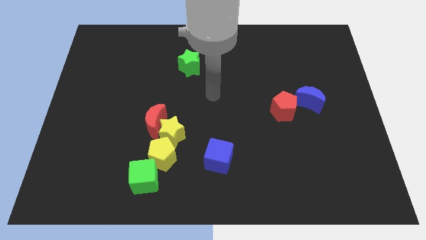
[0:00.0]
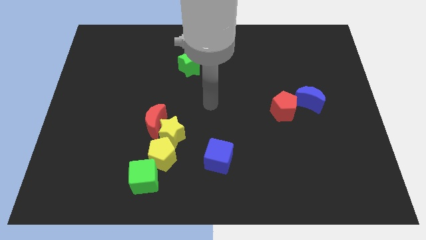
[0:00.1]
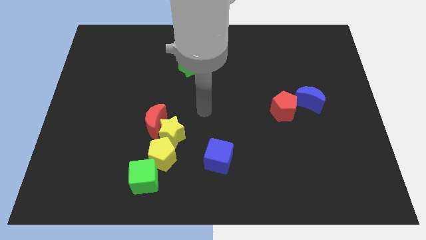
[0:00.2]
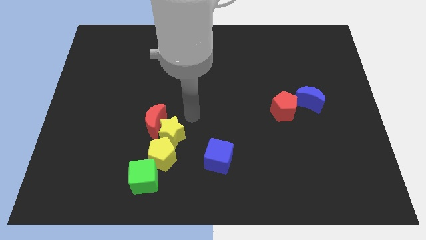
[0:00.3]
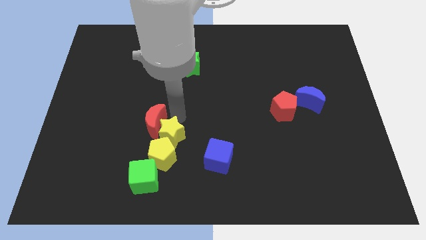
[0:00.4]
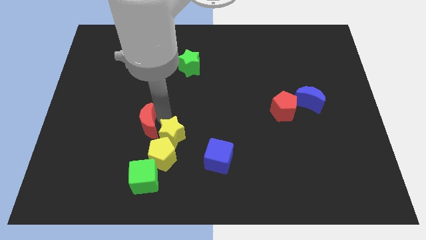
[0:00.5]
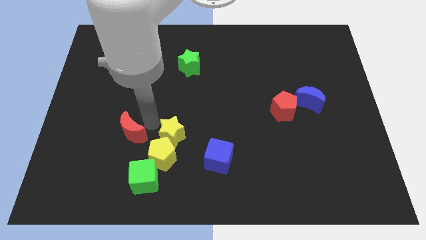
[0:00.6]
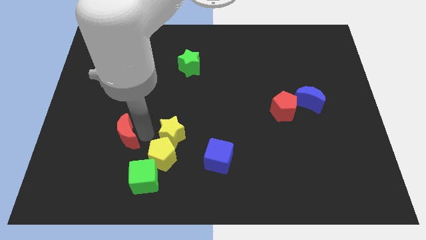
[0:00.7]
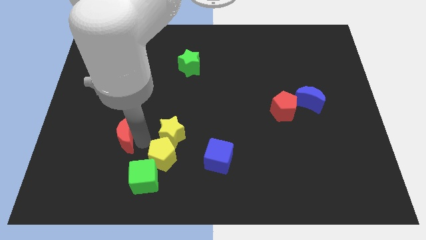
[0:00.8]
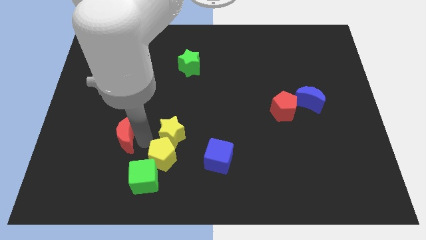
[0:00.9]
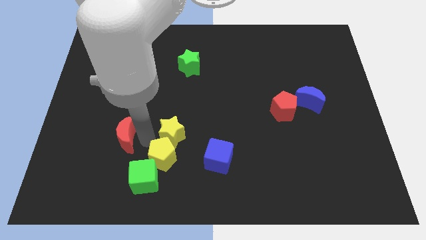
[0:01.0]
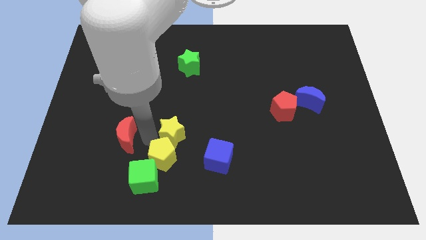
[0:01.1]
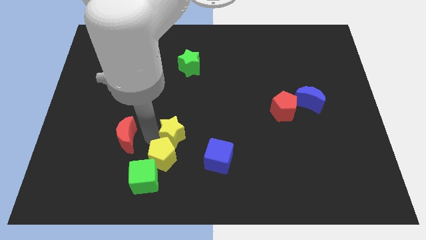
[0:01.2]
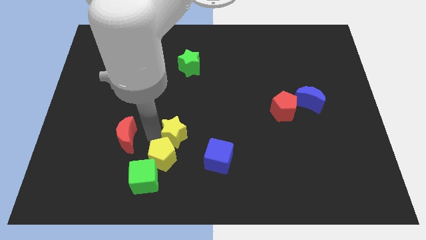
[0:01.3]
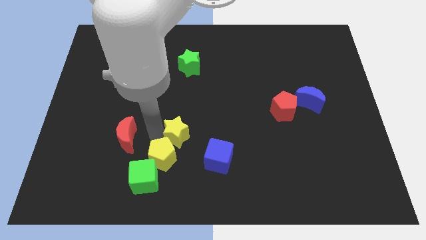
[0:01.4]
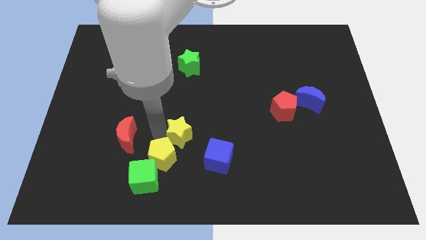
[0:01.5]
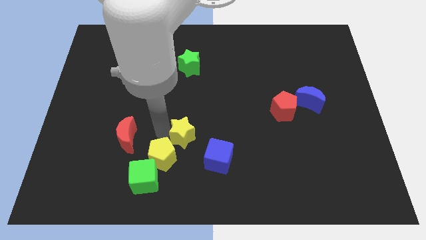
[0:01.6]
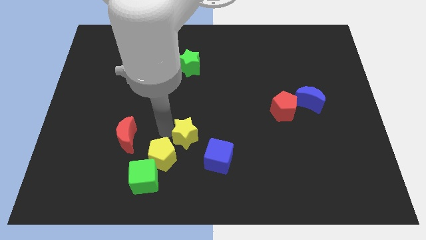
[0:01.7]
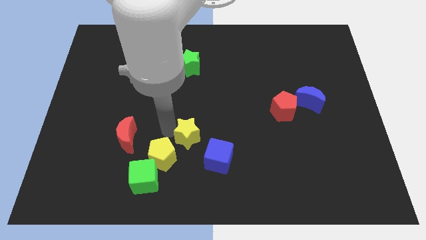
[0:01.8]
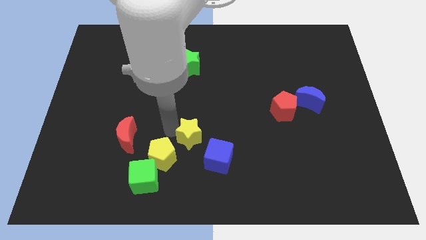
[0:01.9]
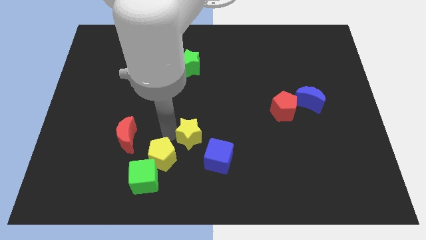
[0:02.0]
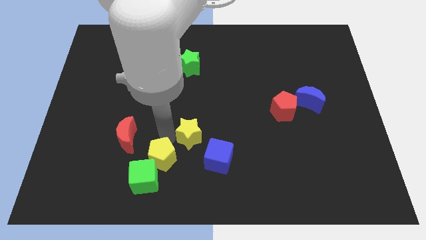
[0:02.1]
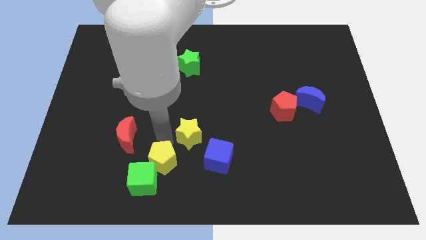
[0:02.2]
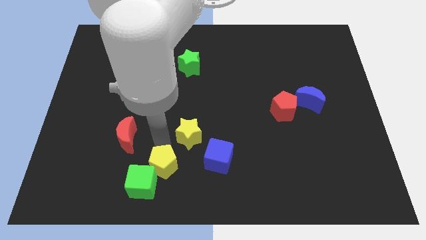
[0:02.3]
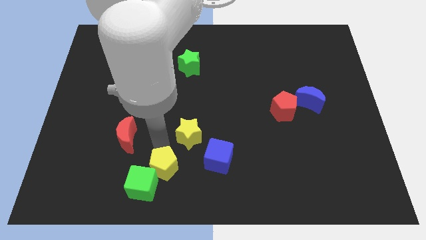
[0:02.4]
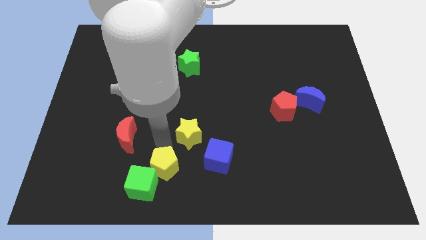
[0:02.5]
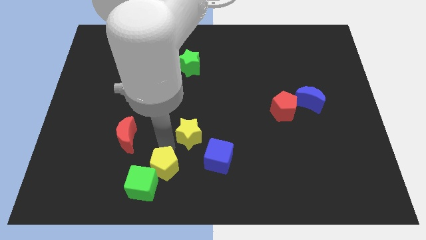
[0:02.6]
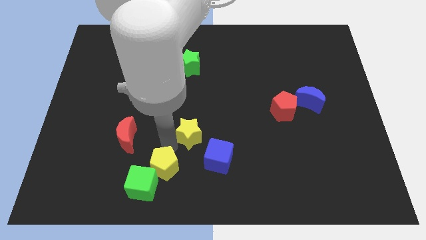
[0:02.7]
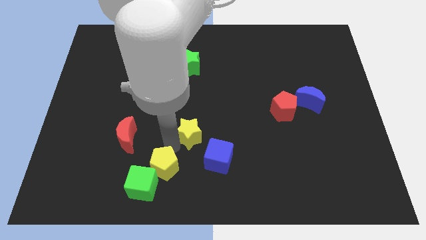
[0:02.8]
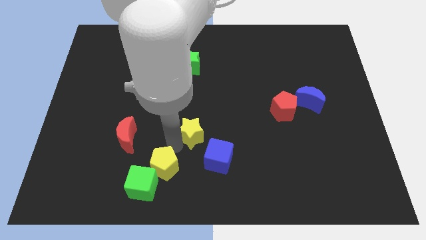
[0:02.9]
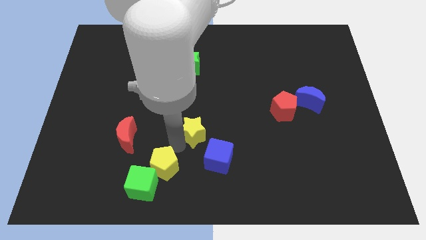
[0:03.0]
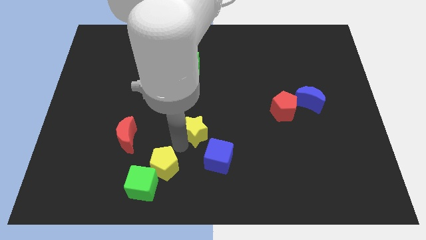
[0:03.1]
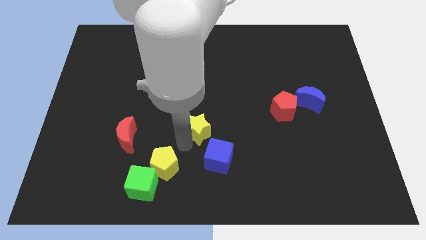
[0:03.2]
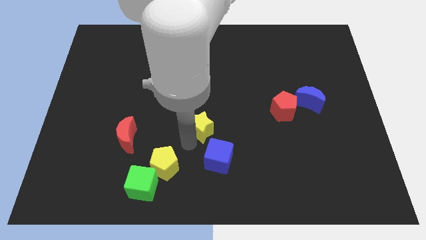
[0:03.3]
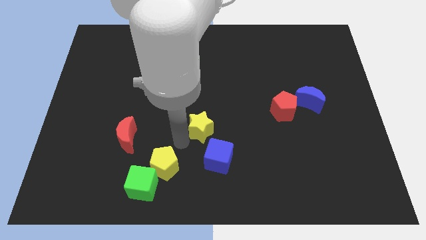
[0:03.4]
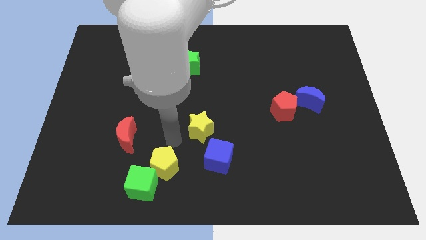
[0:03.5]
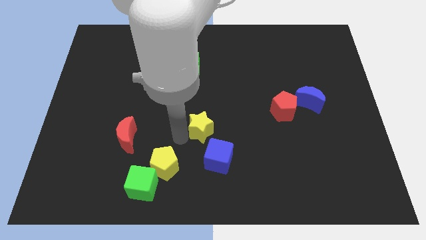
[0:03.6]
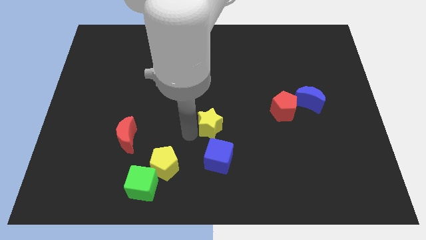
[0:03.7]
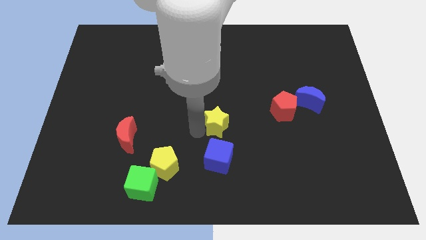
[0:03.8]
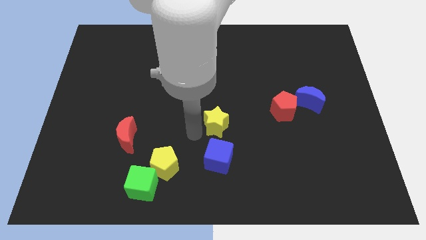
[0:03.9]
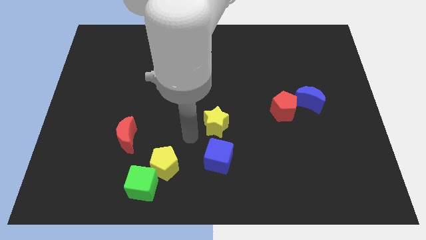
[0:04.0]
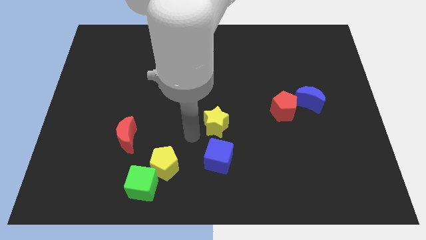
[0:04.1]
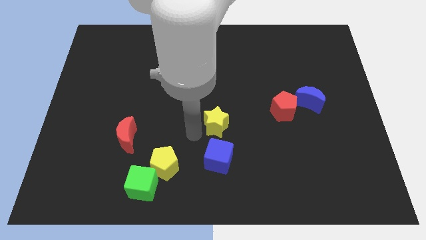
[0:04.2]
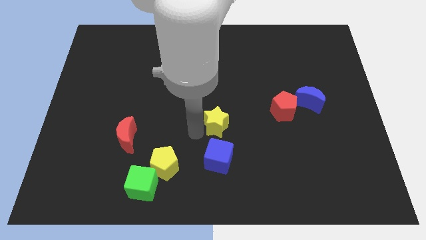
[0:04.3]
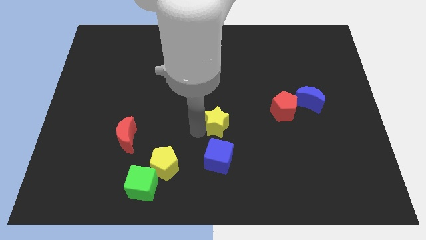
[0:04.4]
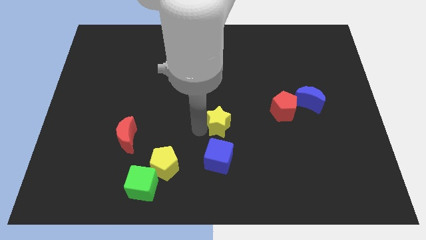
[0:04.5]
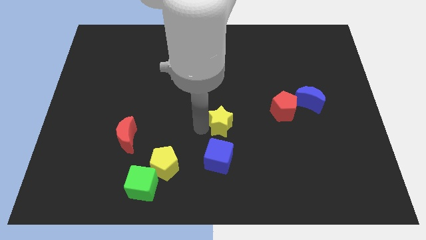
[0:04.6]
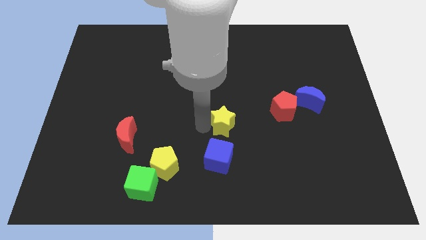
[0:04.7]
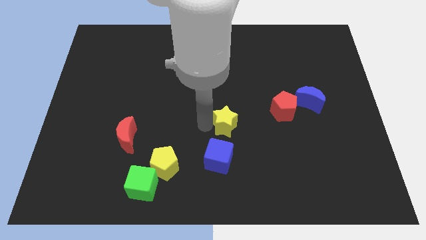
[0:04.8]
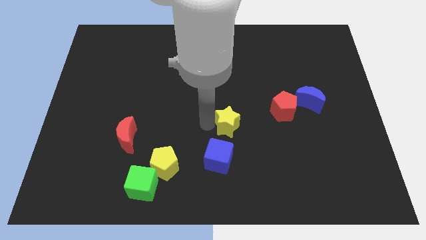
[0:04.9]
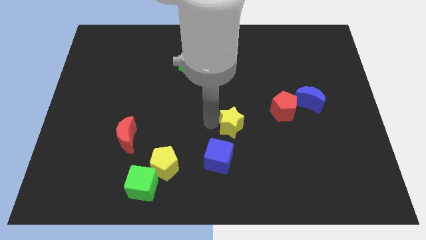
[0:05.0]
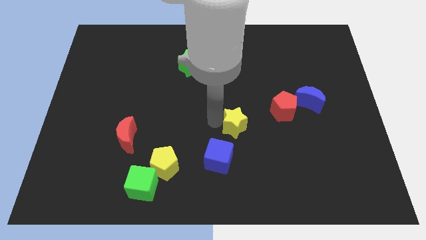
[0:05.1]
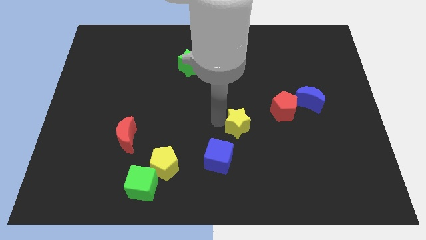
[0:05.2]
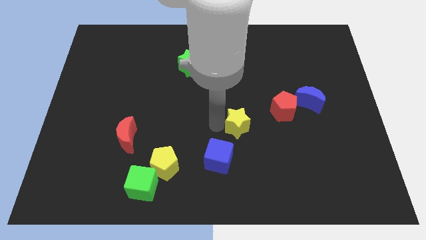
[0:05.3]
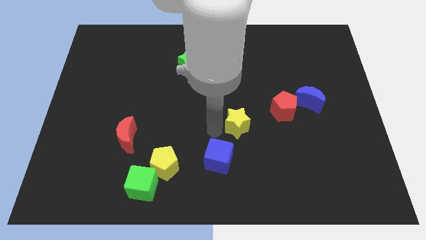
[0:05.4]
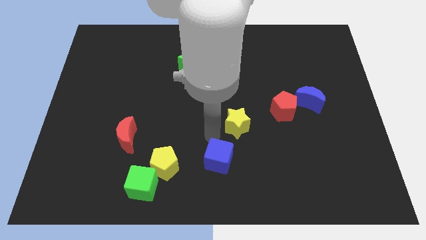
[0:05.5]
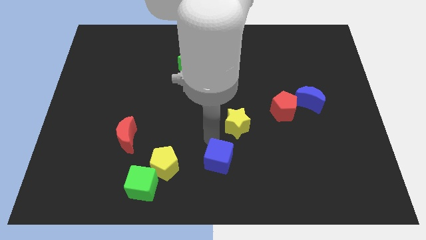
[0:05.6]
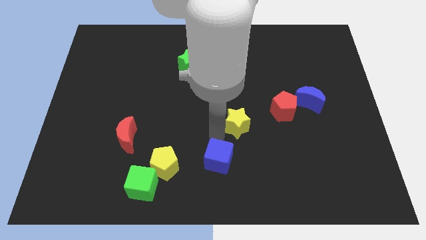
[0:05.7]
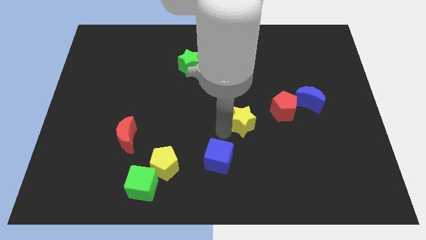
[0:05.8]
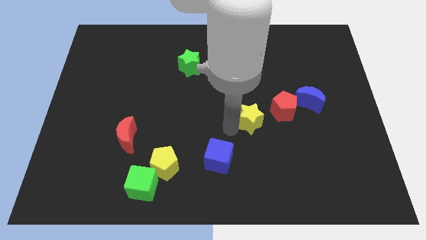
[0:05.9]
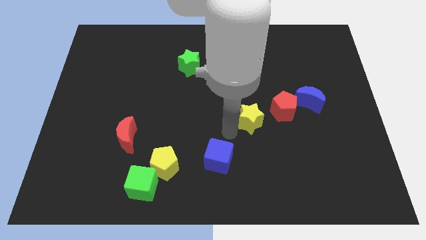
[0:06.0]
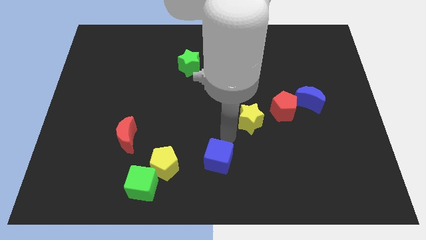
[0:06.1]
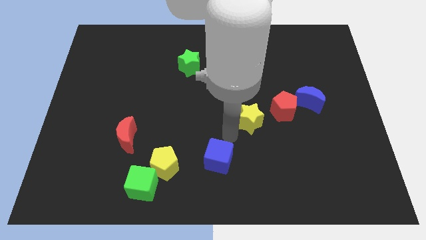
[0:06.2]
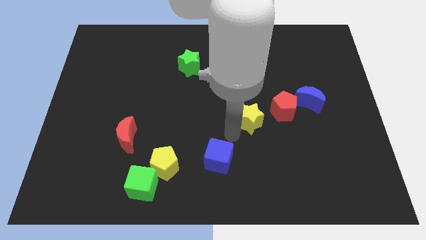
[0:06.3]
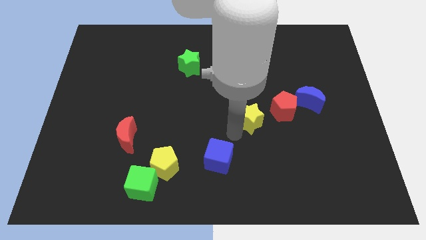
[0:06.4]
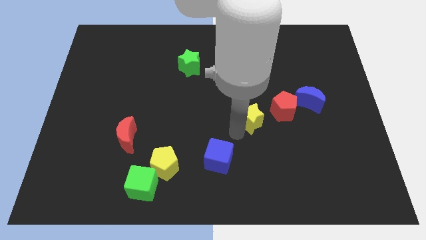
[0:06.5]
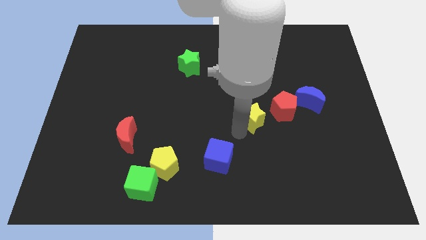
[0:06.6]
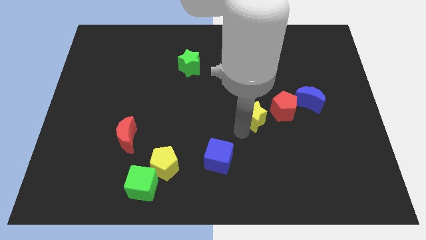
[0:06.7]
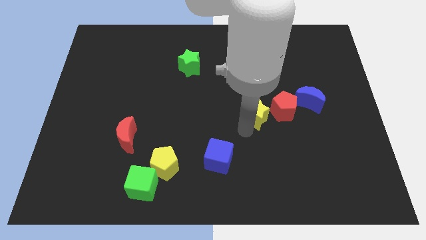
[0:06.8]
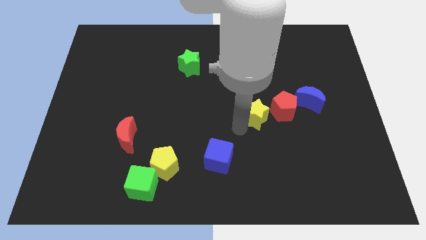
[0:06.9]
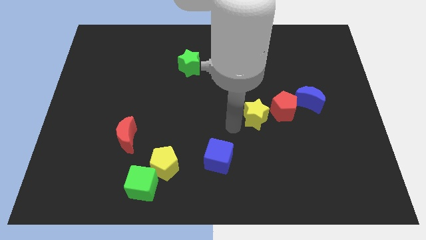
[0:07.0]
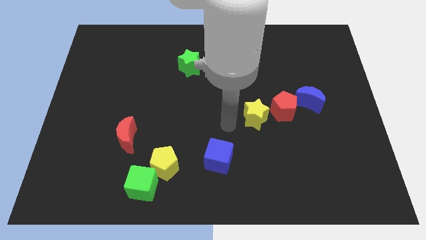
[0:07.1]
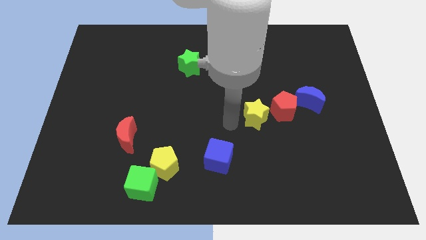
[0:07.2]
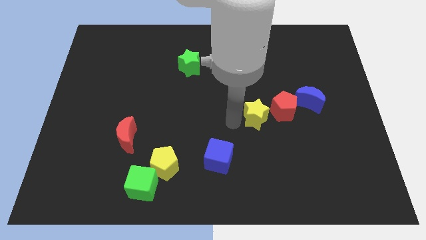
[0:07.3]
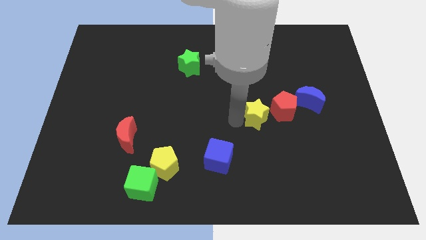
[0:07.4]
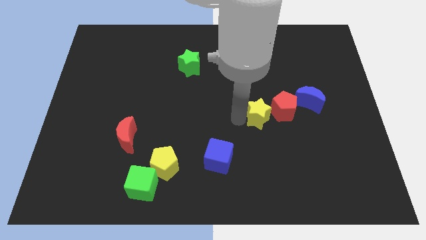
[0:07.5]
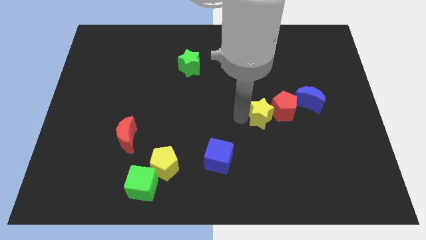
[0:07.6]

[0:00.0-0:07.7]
move the yellow star towards the red pentagon
